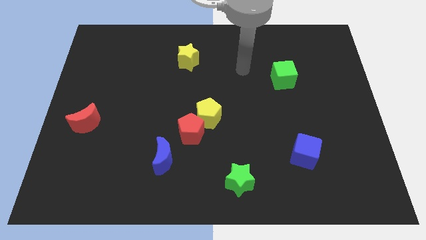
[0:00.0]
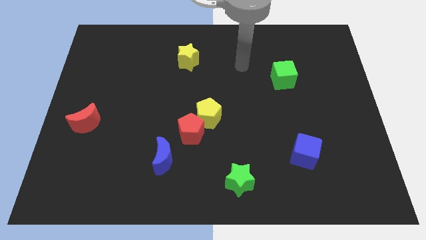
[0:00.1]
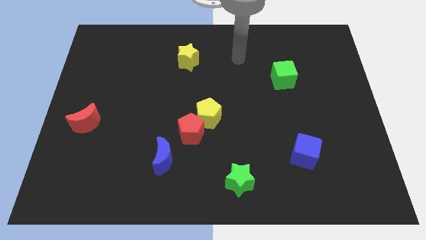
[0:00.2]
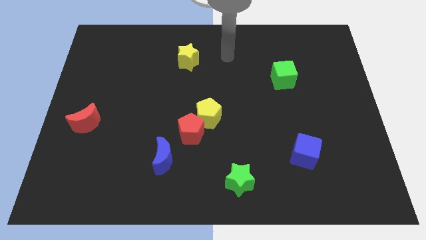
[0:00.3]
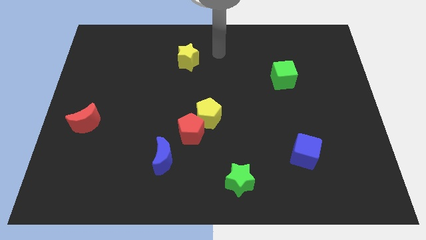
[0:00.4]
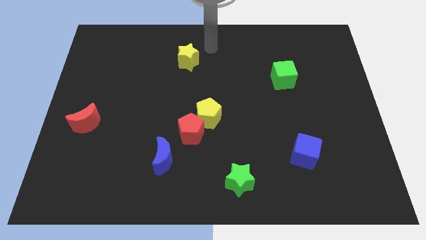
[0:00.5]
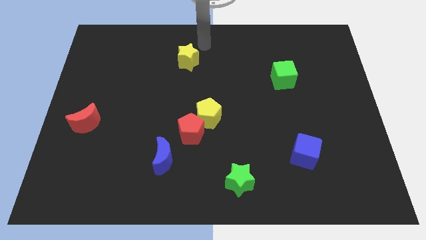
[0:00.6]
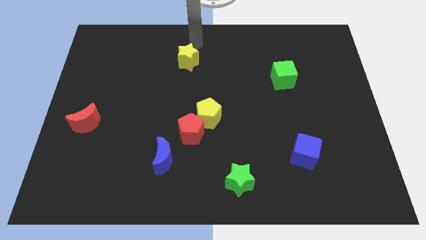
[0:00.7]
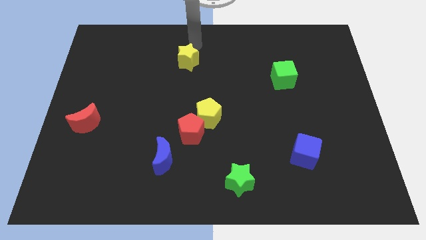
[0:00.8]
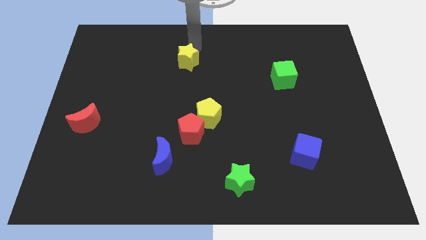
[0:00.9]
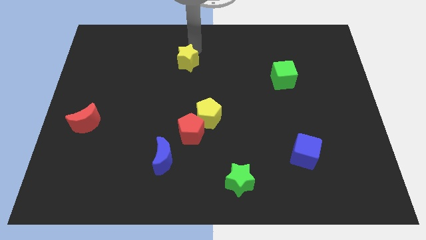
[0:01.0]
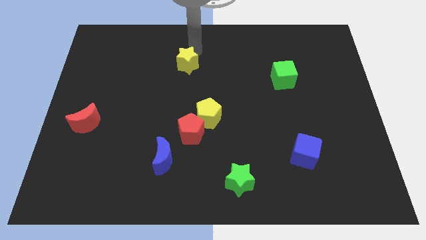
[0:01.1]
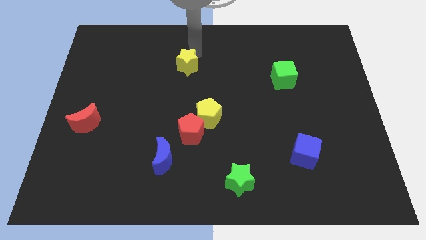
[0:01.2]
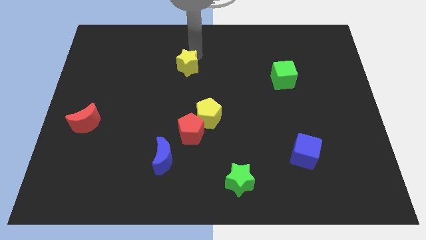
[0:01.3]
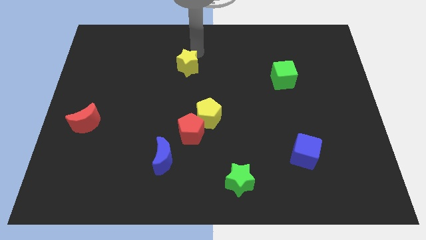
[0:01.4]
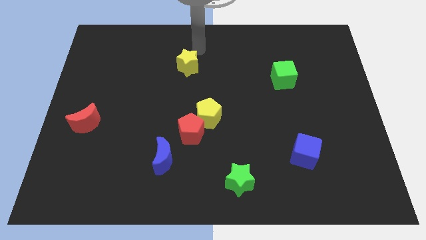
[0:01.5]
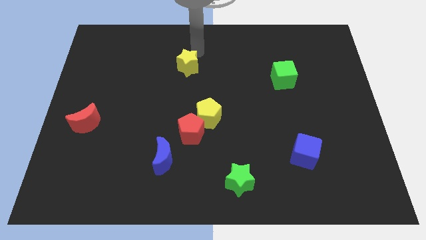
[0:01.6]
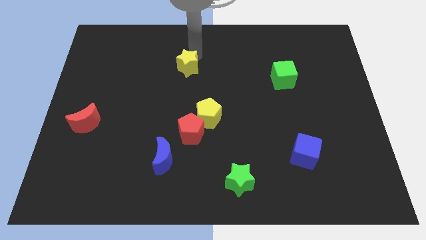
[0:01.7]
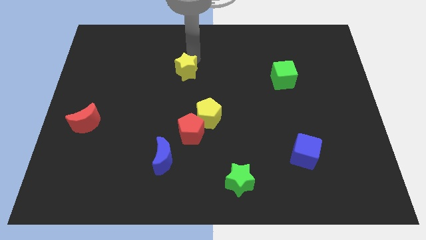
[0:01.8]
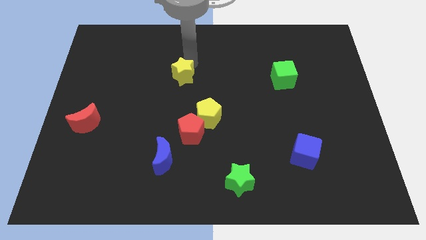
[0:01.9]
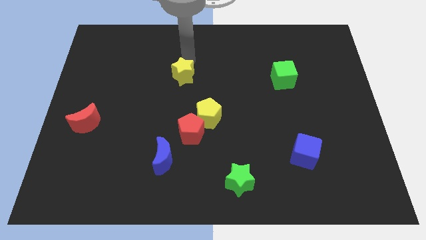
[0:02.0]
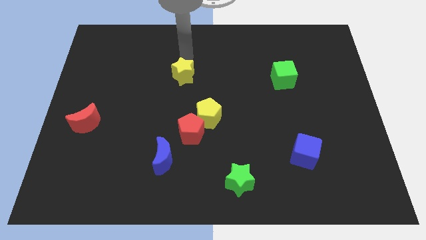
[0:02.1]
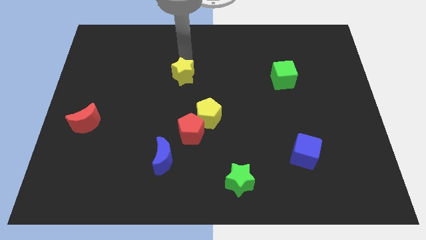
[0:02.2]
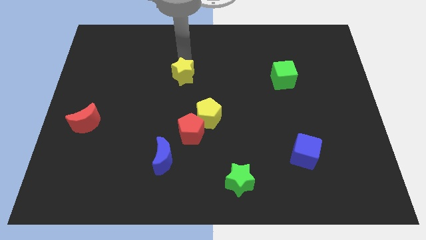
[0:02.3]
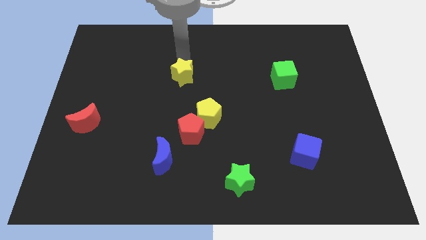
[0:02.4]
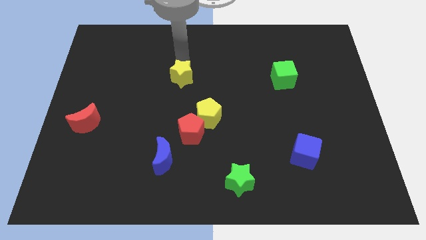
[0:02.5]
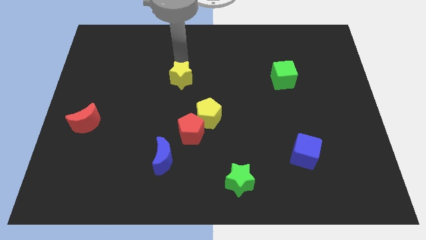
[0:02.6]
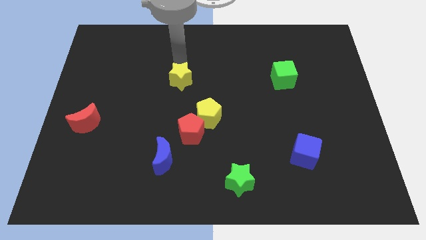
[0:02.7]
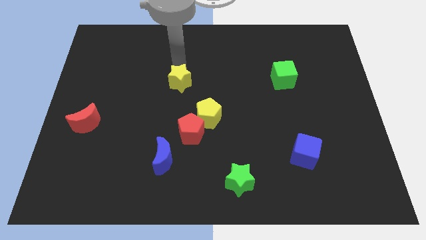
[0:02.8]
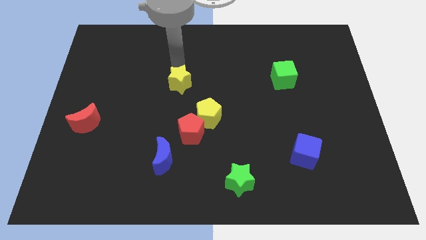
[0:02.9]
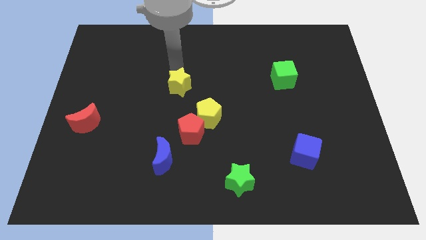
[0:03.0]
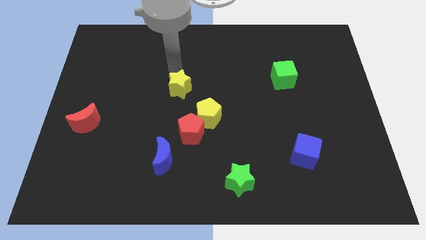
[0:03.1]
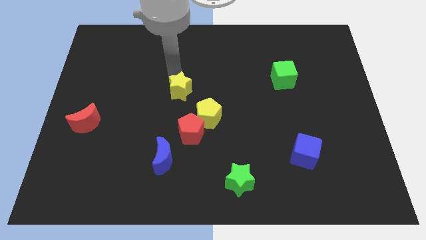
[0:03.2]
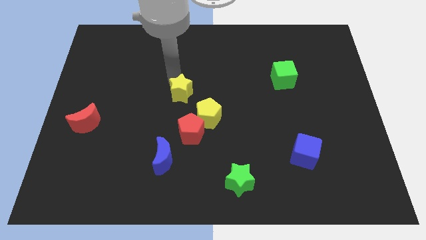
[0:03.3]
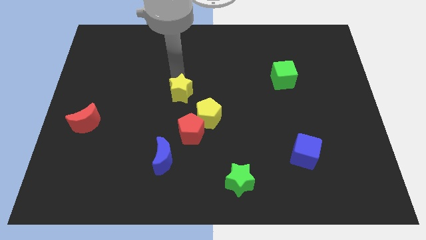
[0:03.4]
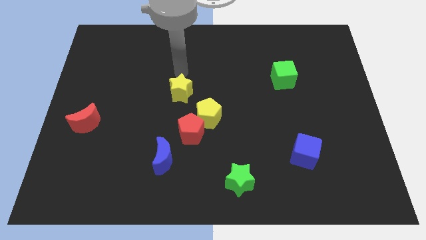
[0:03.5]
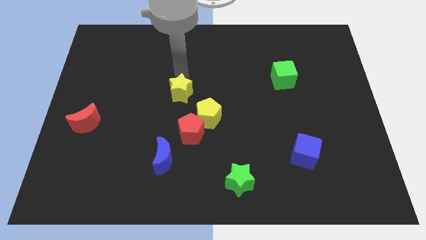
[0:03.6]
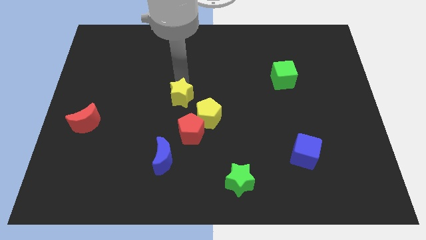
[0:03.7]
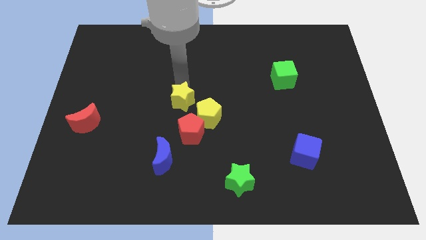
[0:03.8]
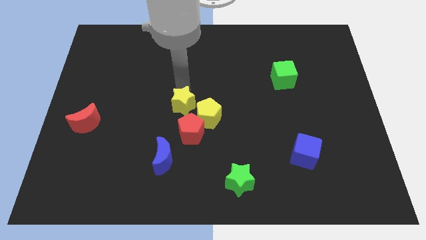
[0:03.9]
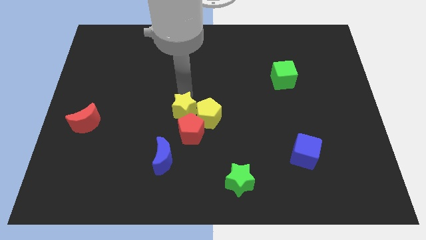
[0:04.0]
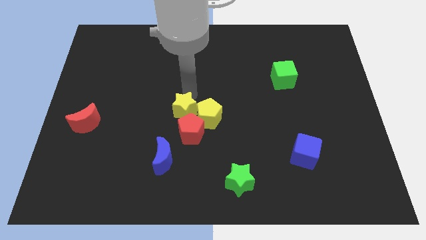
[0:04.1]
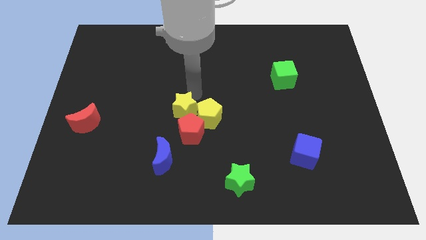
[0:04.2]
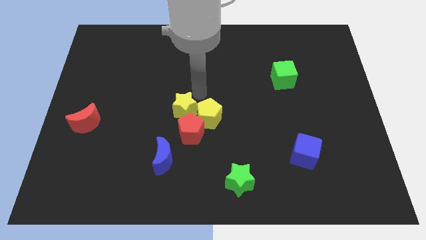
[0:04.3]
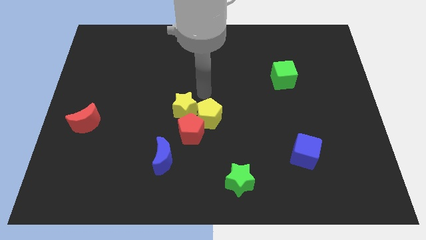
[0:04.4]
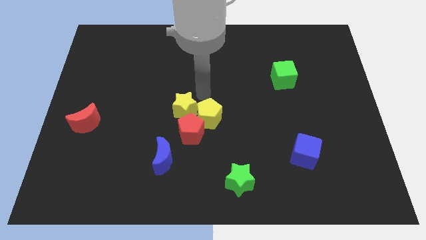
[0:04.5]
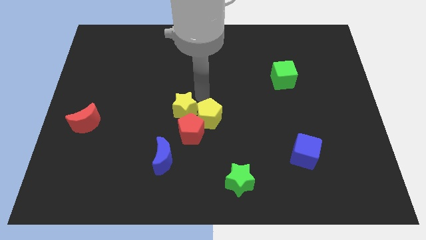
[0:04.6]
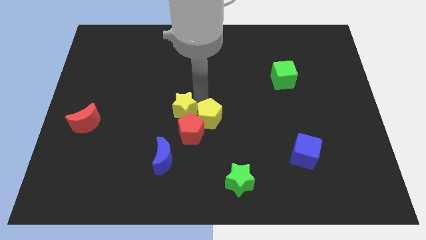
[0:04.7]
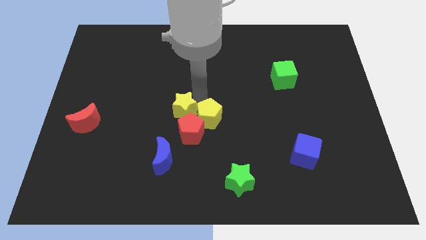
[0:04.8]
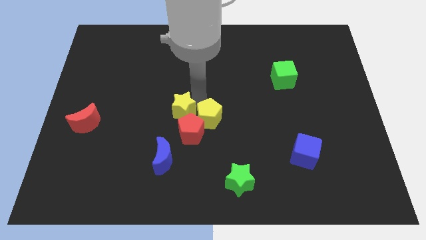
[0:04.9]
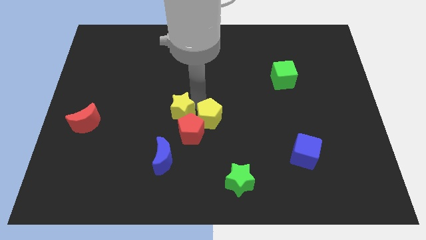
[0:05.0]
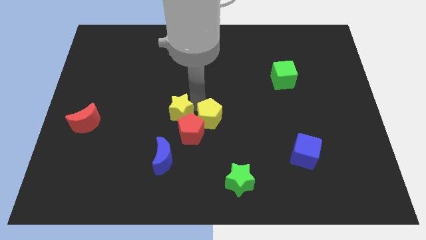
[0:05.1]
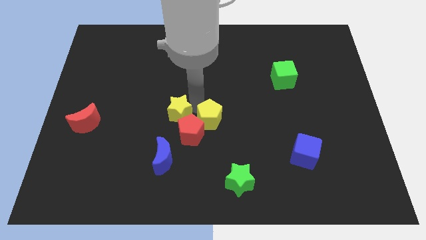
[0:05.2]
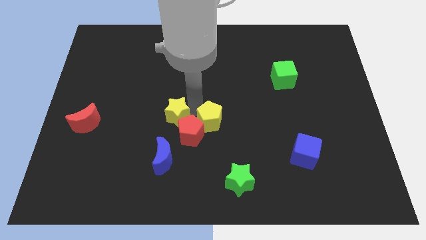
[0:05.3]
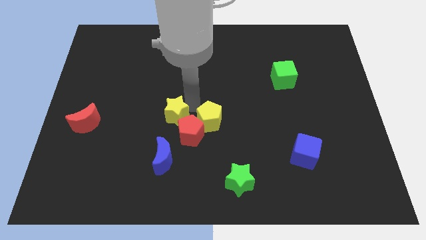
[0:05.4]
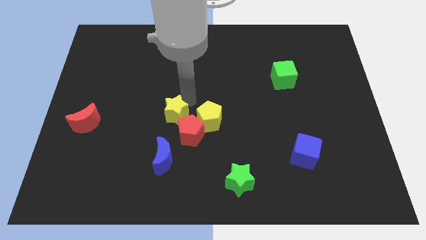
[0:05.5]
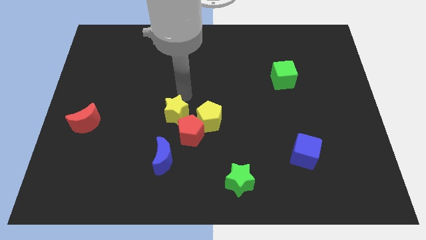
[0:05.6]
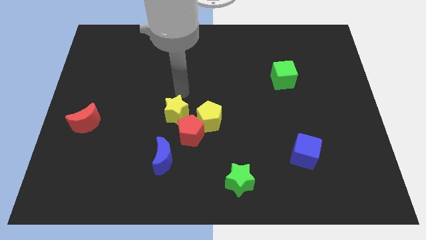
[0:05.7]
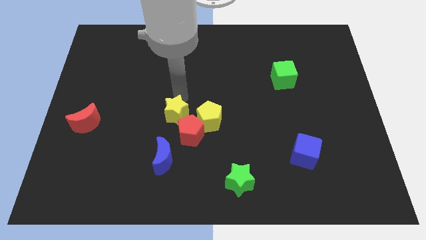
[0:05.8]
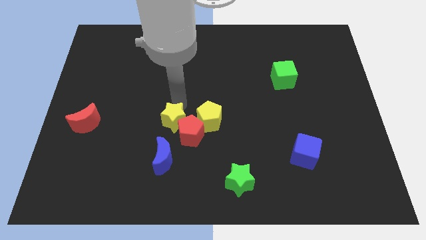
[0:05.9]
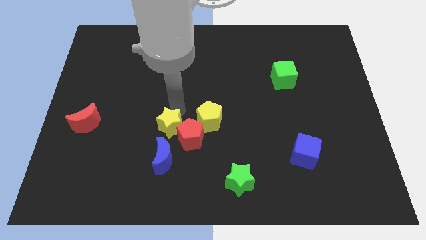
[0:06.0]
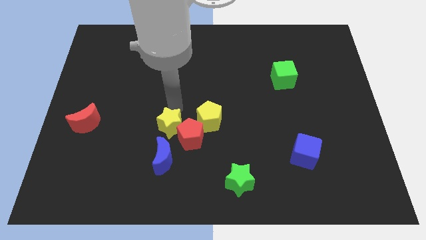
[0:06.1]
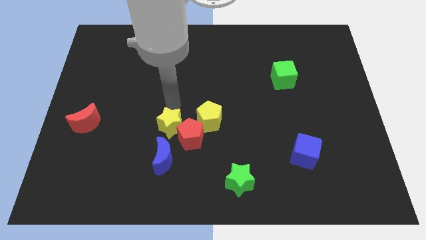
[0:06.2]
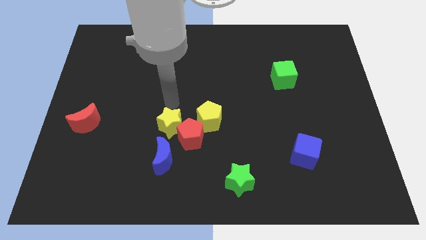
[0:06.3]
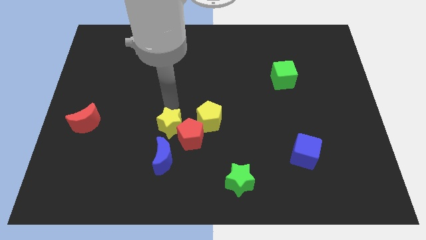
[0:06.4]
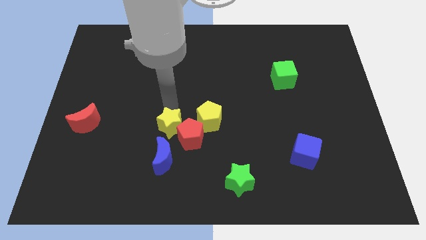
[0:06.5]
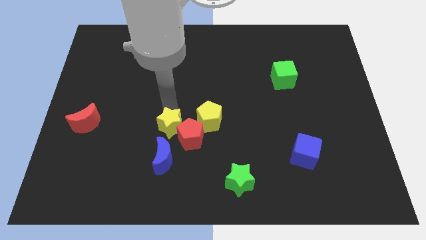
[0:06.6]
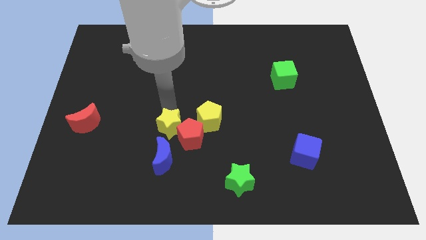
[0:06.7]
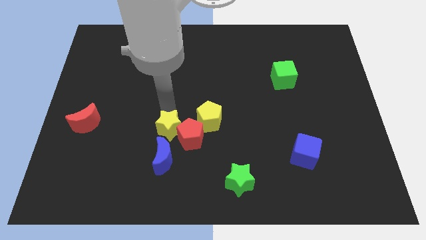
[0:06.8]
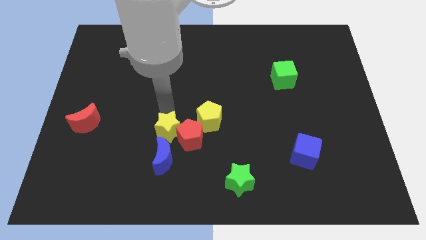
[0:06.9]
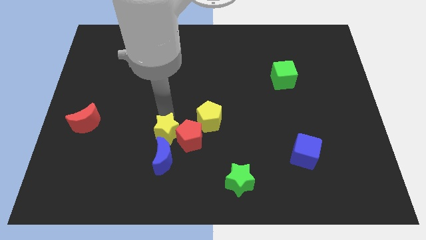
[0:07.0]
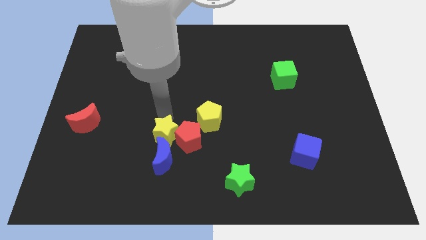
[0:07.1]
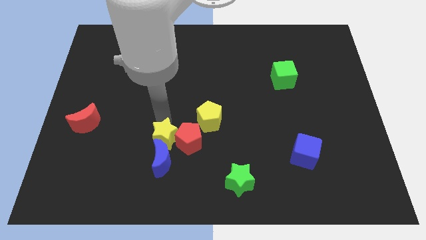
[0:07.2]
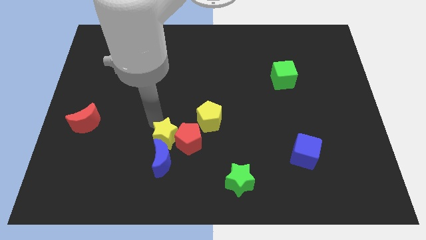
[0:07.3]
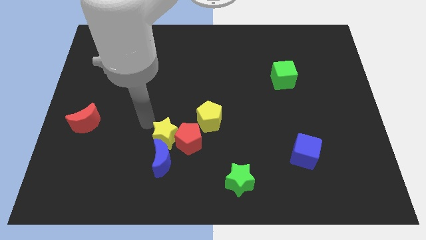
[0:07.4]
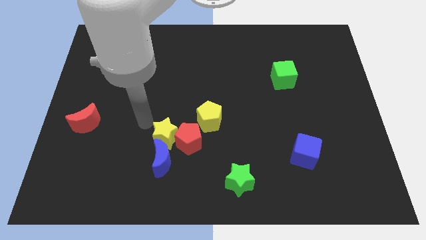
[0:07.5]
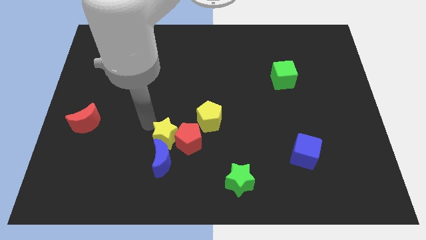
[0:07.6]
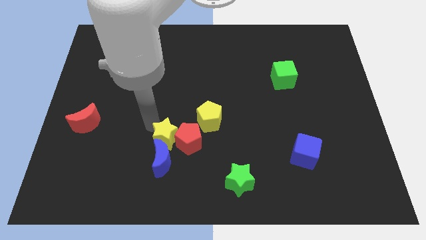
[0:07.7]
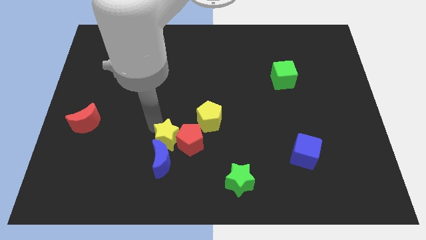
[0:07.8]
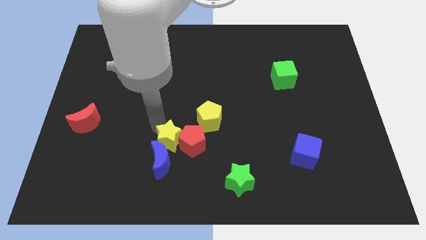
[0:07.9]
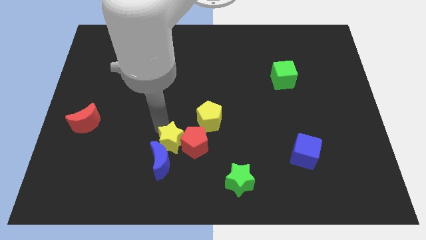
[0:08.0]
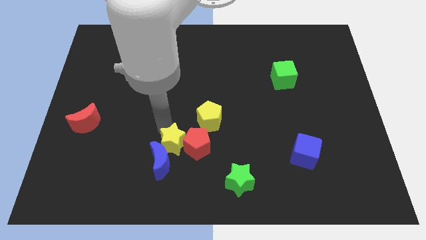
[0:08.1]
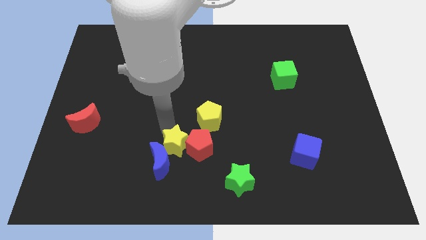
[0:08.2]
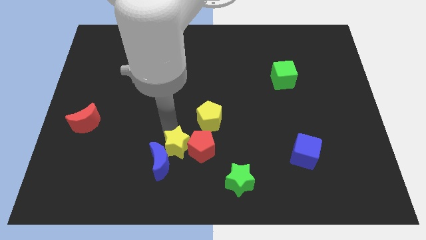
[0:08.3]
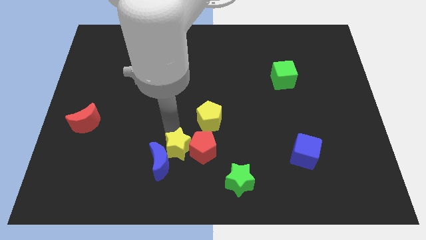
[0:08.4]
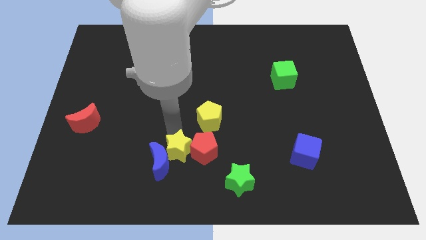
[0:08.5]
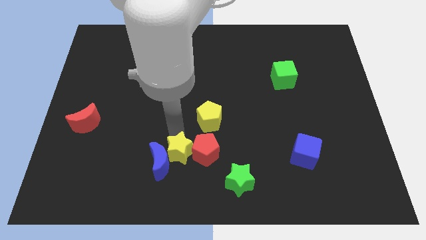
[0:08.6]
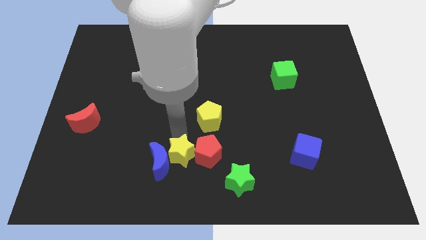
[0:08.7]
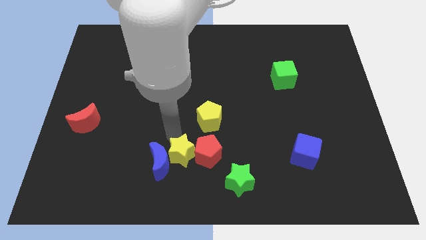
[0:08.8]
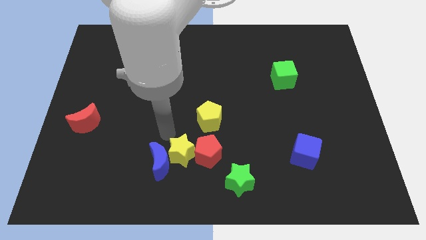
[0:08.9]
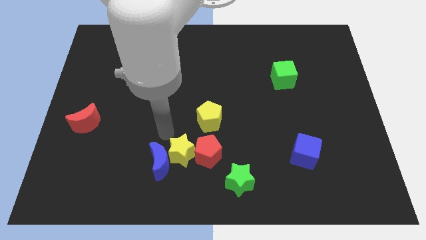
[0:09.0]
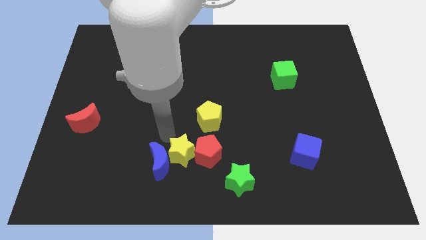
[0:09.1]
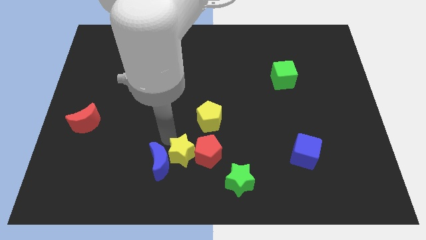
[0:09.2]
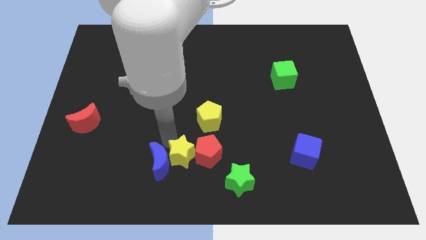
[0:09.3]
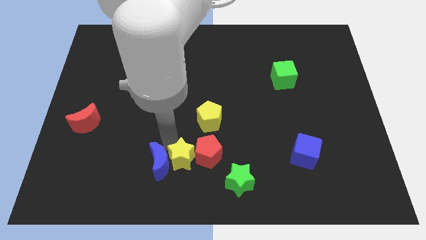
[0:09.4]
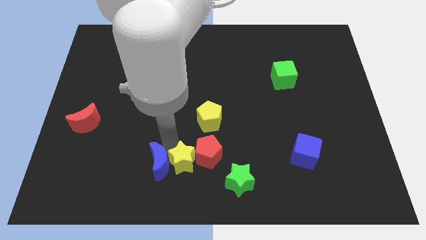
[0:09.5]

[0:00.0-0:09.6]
move the yellow star to the bottom side
